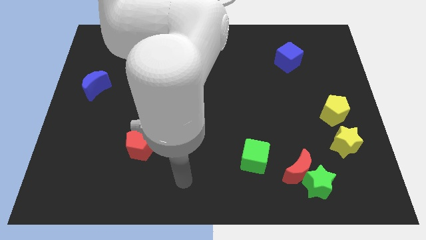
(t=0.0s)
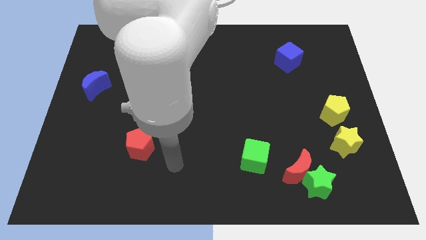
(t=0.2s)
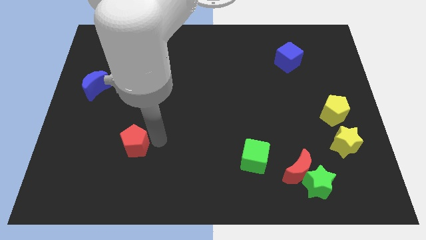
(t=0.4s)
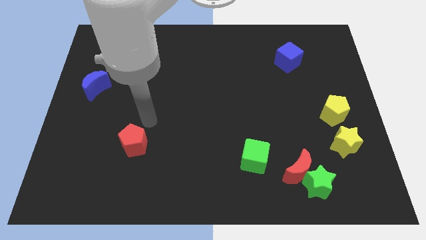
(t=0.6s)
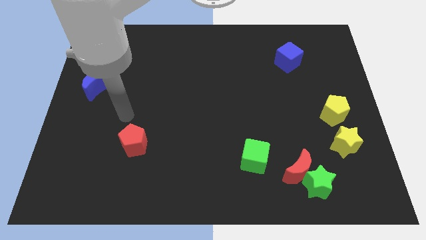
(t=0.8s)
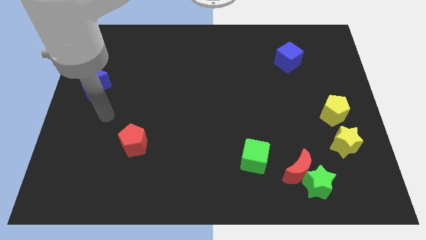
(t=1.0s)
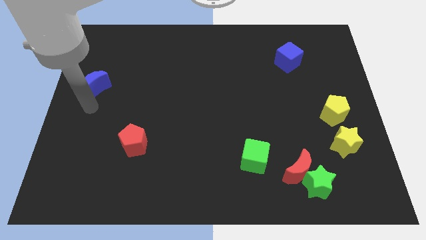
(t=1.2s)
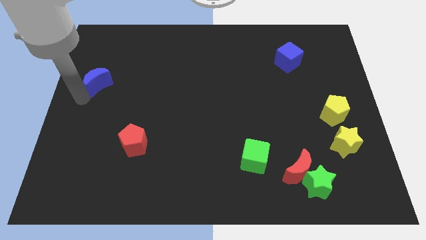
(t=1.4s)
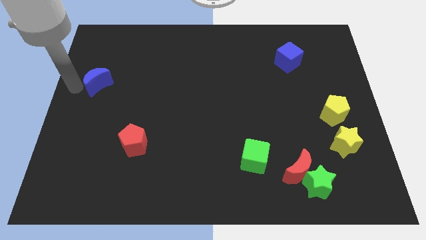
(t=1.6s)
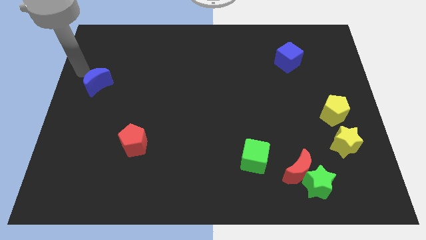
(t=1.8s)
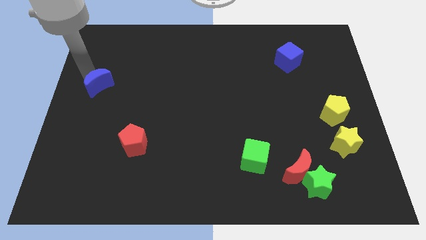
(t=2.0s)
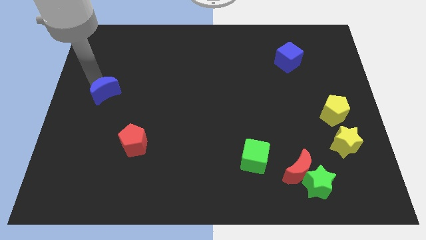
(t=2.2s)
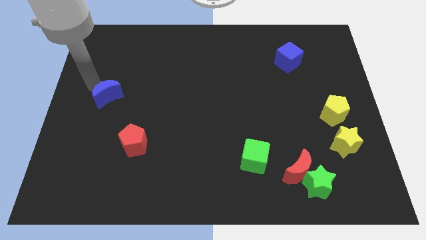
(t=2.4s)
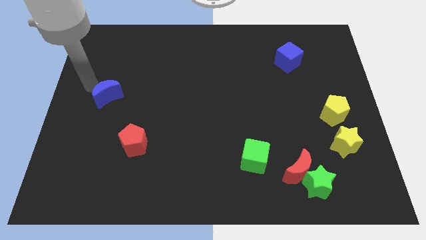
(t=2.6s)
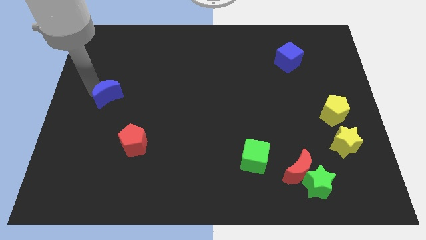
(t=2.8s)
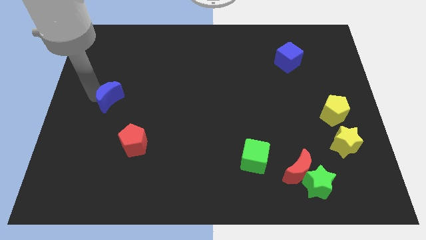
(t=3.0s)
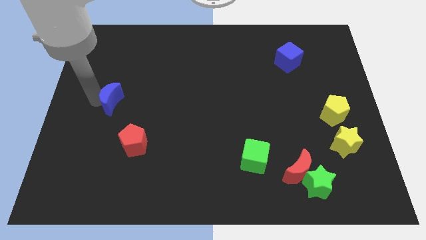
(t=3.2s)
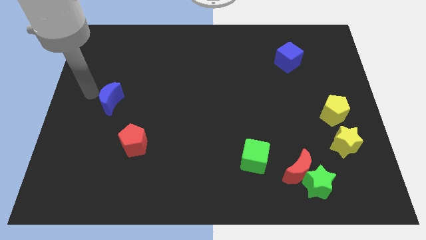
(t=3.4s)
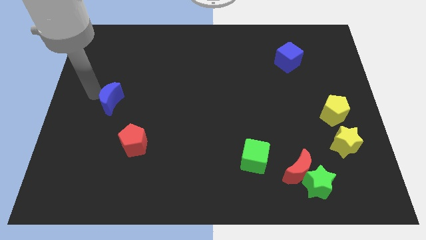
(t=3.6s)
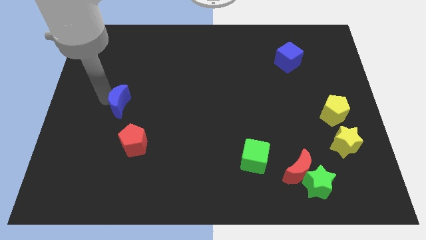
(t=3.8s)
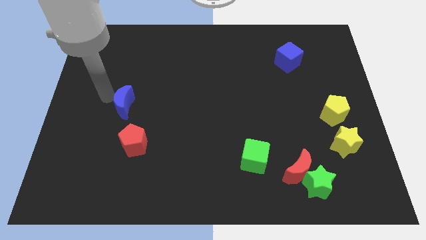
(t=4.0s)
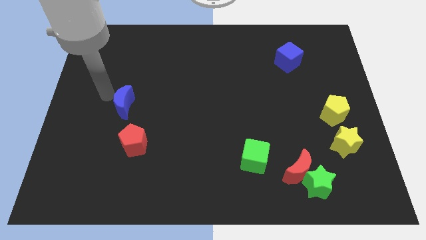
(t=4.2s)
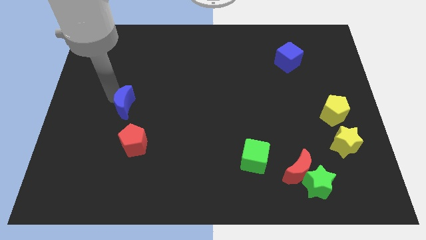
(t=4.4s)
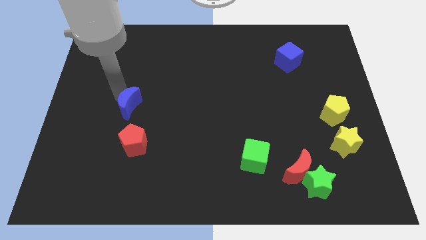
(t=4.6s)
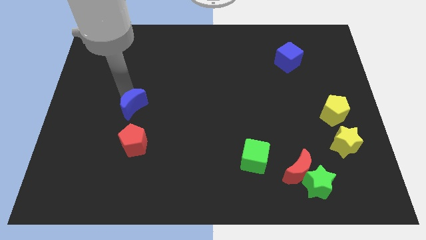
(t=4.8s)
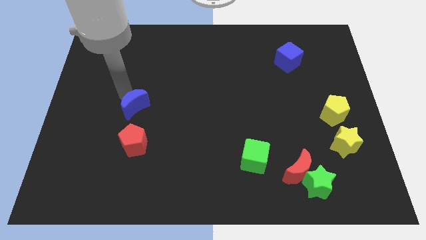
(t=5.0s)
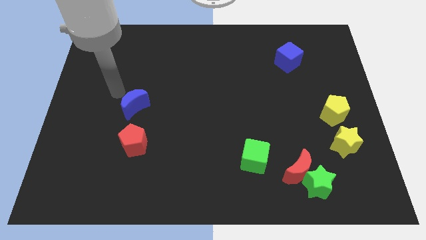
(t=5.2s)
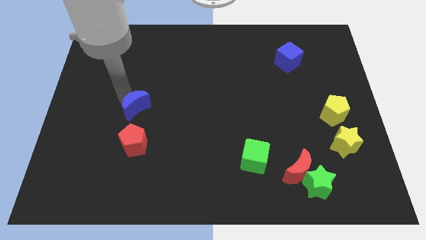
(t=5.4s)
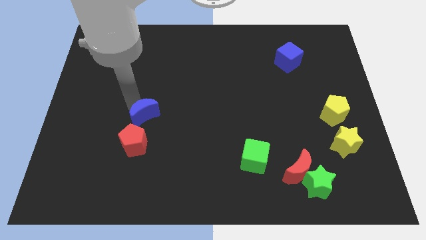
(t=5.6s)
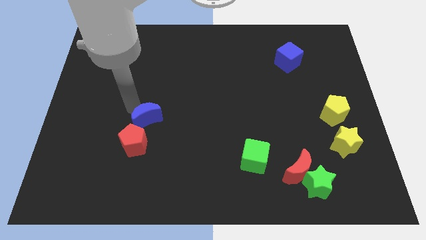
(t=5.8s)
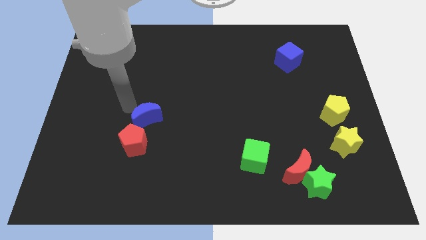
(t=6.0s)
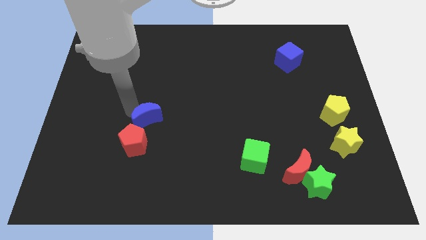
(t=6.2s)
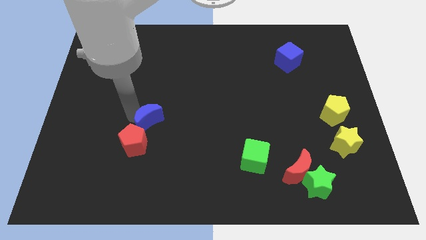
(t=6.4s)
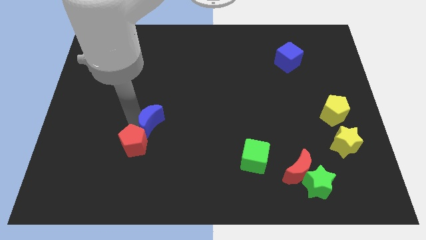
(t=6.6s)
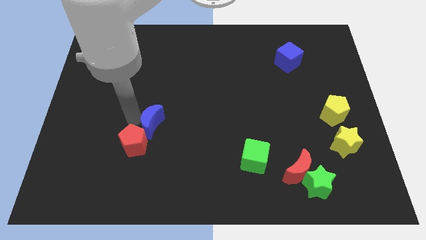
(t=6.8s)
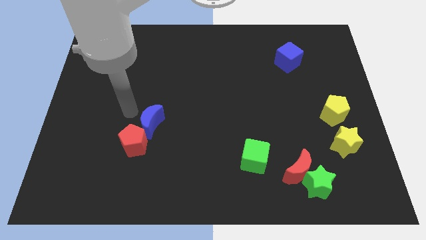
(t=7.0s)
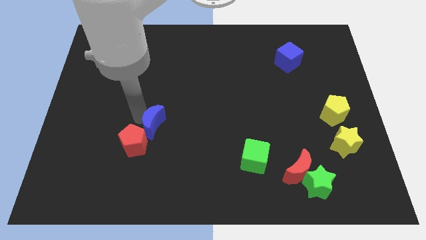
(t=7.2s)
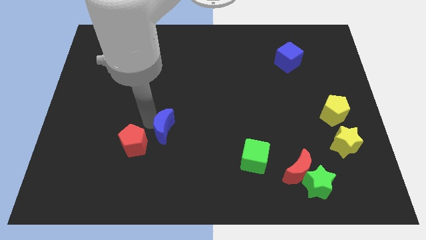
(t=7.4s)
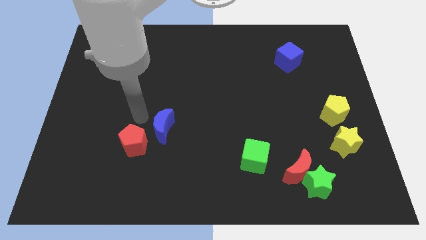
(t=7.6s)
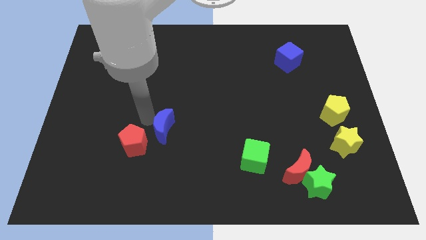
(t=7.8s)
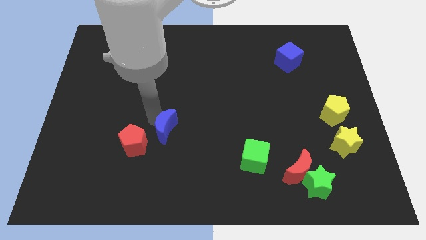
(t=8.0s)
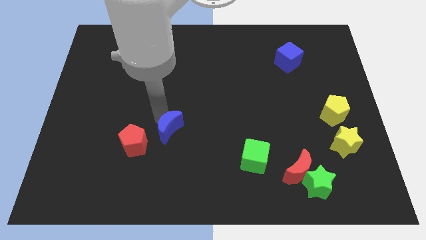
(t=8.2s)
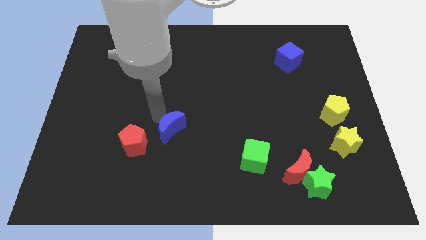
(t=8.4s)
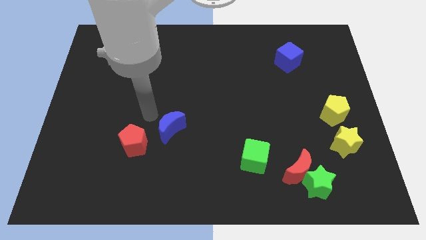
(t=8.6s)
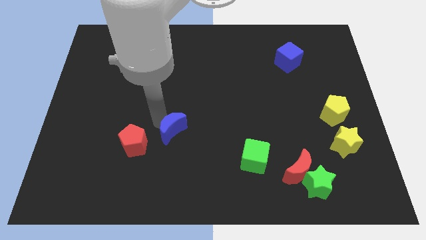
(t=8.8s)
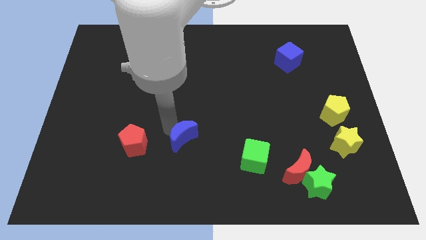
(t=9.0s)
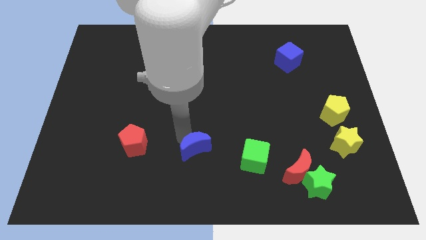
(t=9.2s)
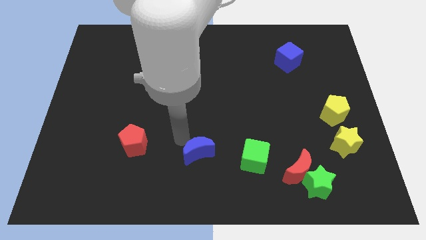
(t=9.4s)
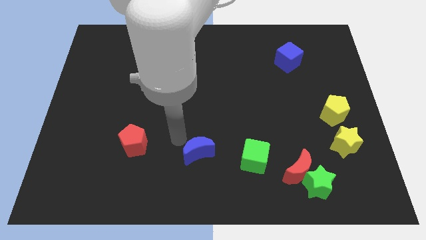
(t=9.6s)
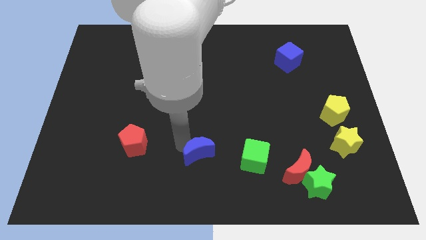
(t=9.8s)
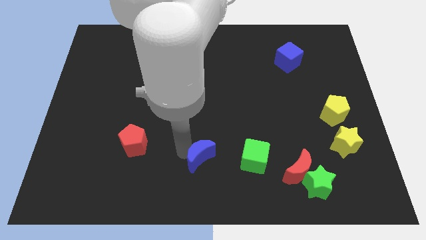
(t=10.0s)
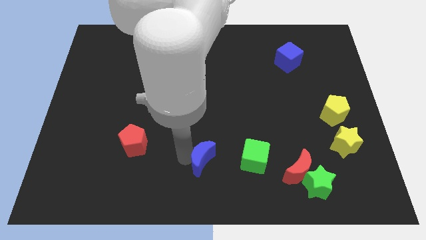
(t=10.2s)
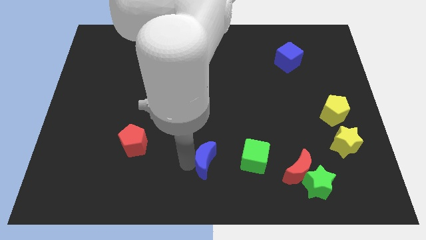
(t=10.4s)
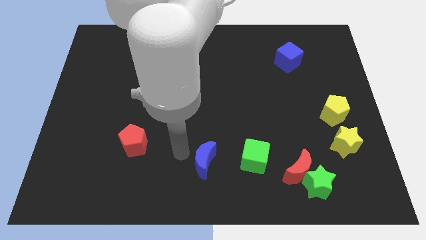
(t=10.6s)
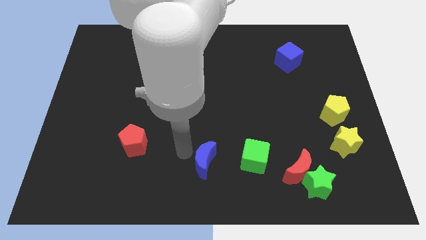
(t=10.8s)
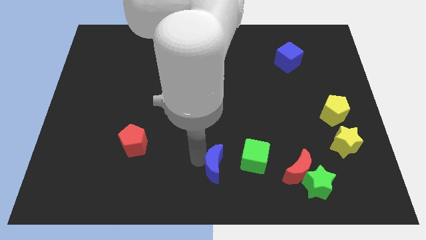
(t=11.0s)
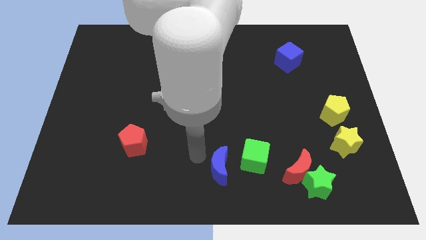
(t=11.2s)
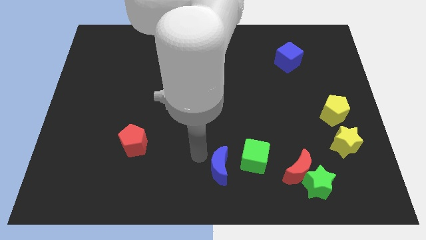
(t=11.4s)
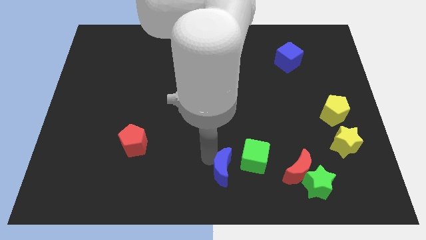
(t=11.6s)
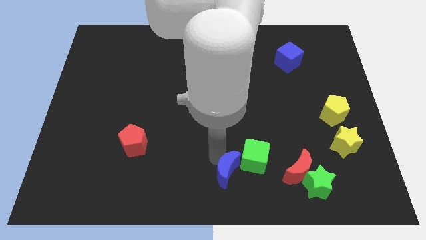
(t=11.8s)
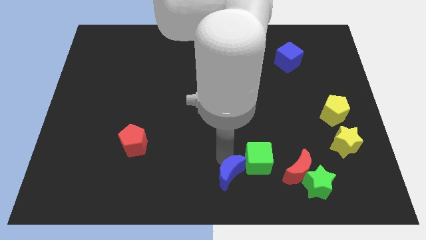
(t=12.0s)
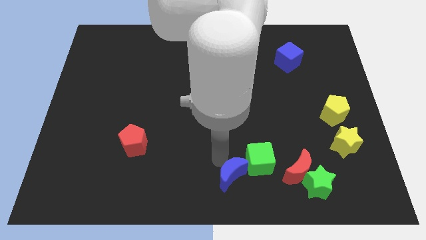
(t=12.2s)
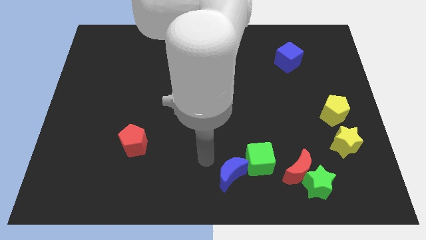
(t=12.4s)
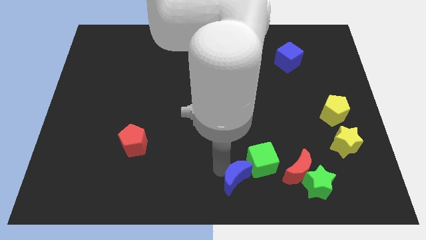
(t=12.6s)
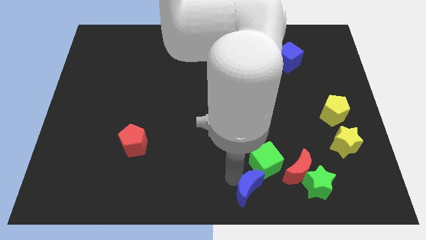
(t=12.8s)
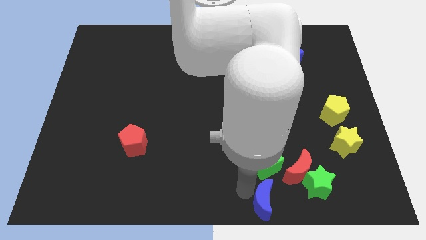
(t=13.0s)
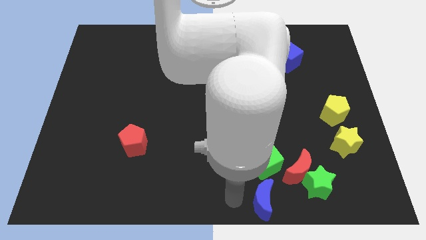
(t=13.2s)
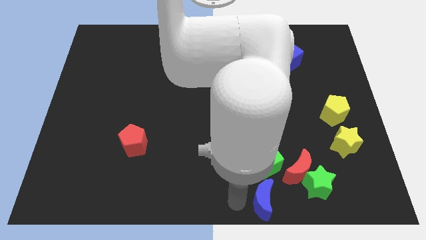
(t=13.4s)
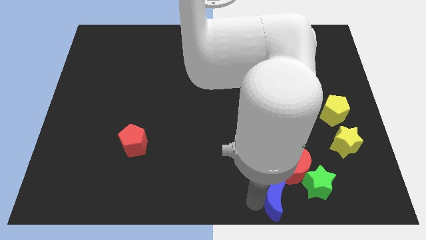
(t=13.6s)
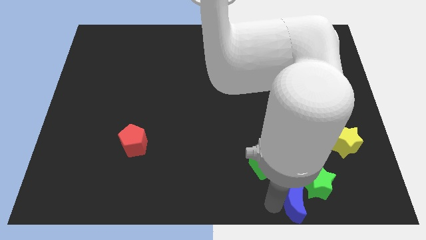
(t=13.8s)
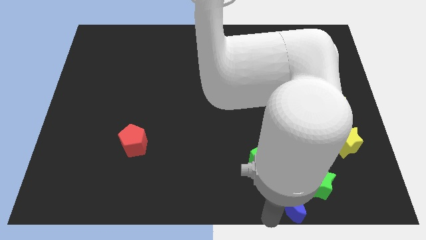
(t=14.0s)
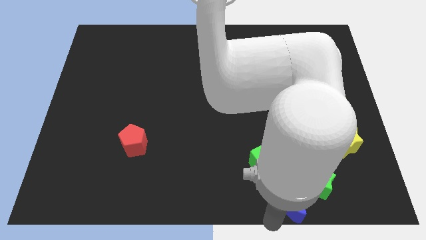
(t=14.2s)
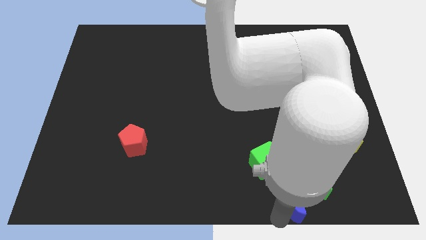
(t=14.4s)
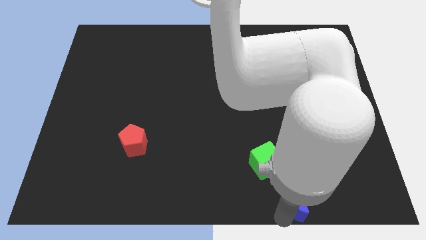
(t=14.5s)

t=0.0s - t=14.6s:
move the blue moon towards the green star
